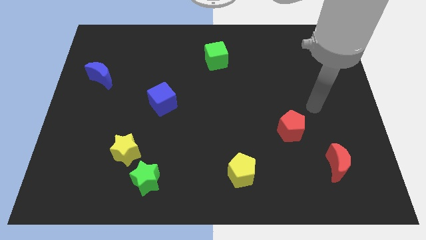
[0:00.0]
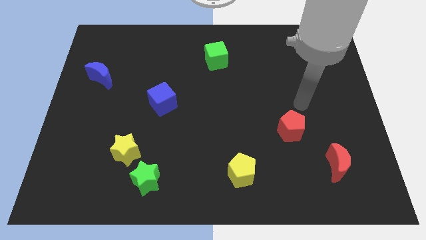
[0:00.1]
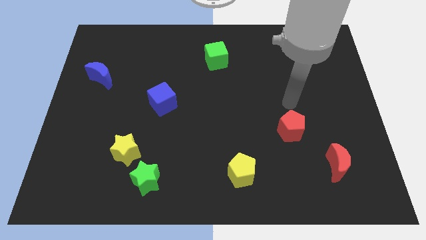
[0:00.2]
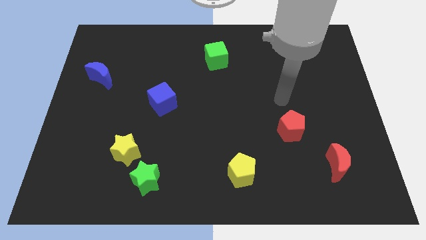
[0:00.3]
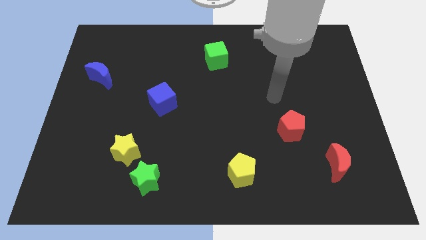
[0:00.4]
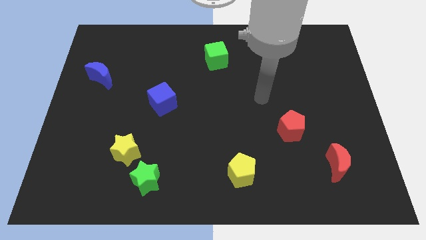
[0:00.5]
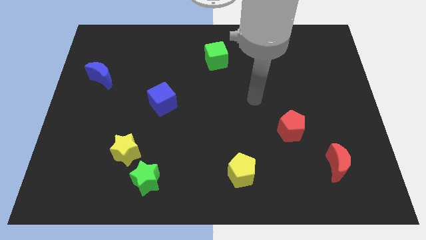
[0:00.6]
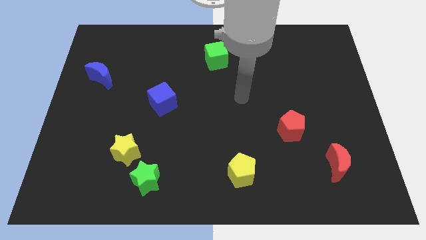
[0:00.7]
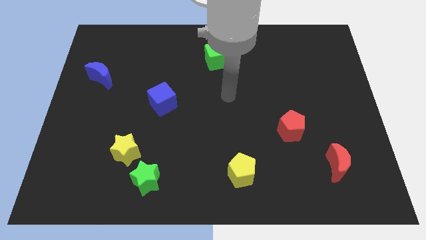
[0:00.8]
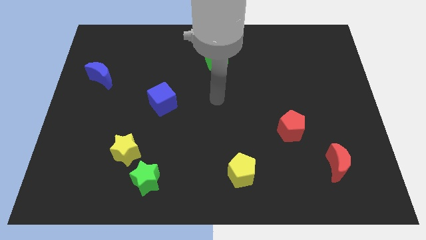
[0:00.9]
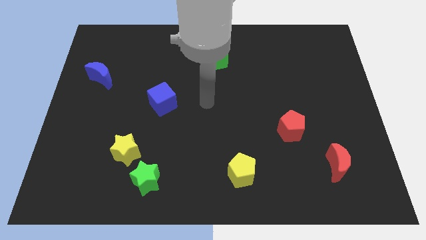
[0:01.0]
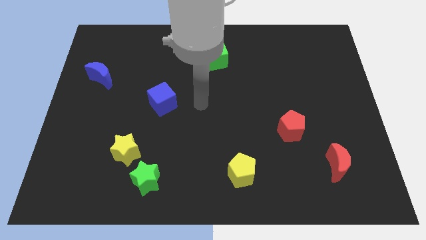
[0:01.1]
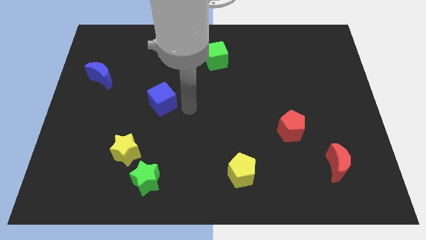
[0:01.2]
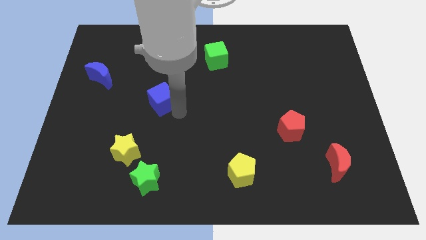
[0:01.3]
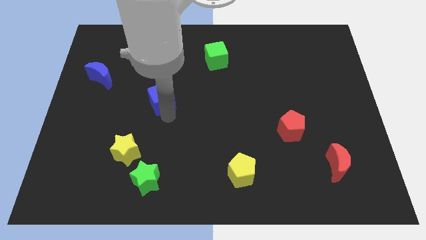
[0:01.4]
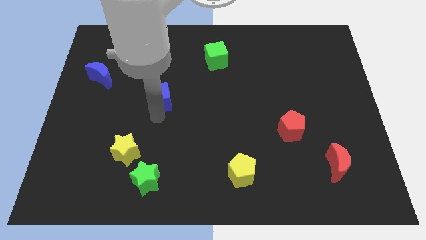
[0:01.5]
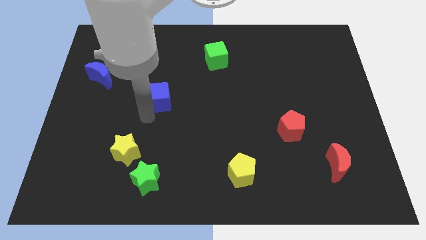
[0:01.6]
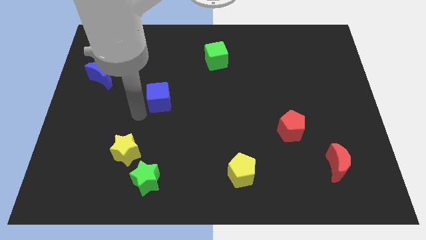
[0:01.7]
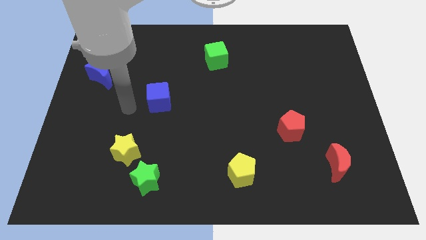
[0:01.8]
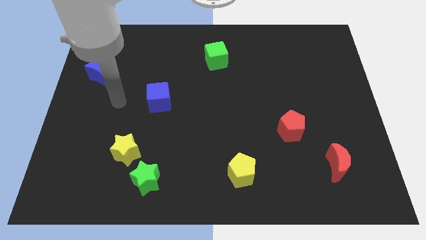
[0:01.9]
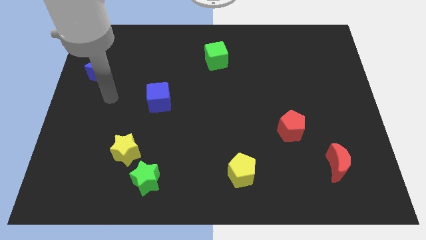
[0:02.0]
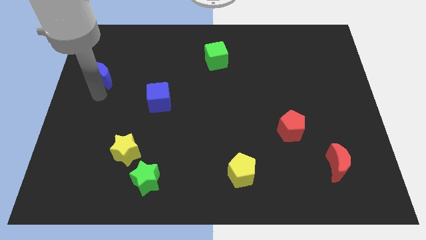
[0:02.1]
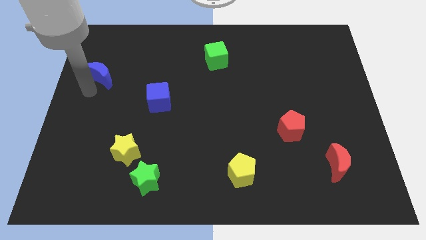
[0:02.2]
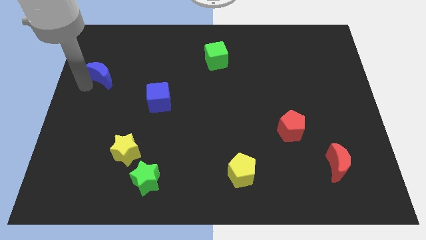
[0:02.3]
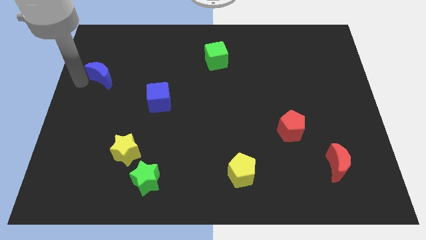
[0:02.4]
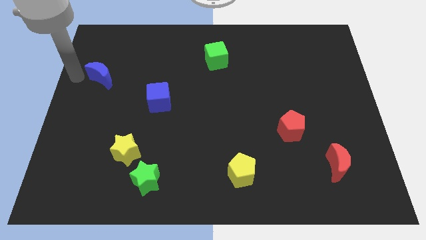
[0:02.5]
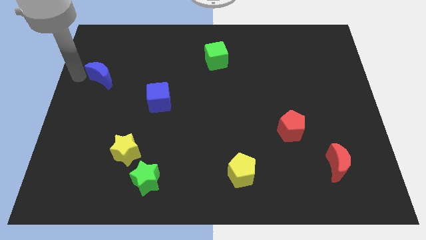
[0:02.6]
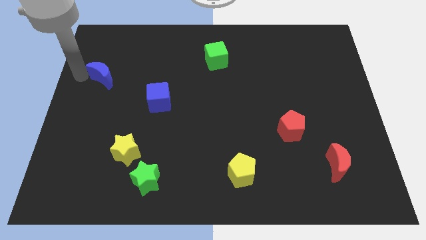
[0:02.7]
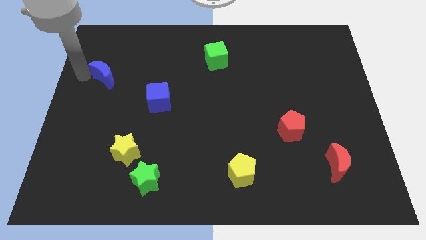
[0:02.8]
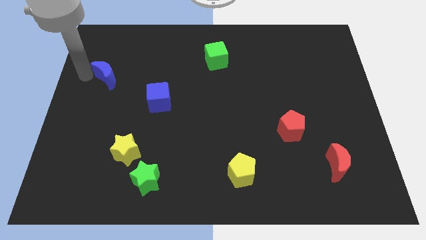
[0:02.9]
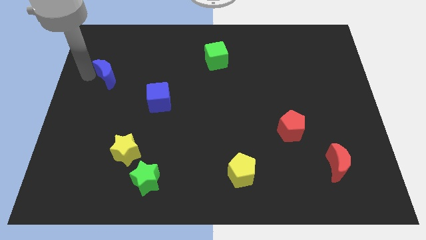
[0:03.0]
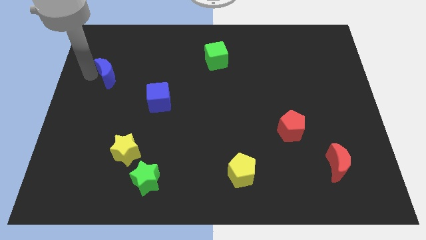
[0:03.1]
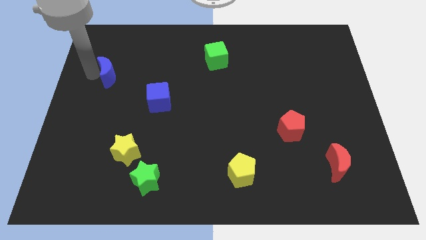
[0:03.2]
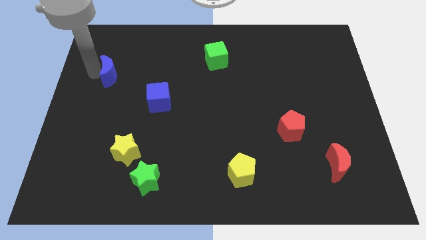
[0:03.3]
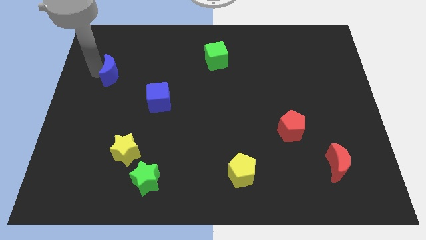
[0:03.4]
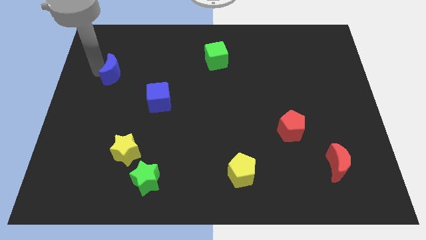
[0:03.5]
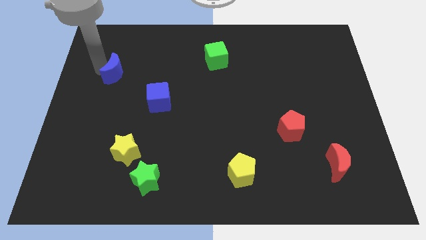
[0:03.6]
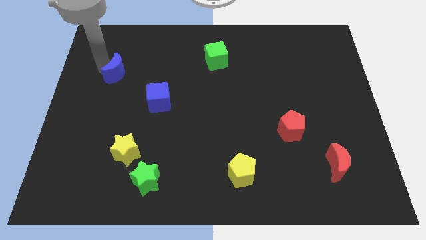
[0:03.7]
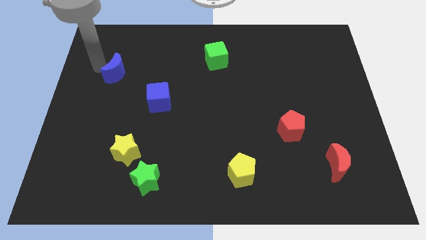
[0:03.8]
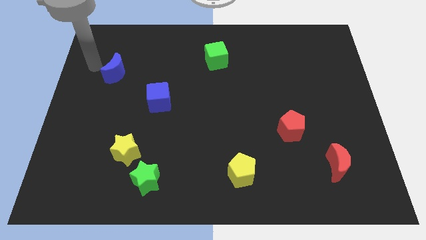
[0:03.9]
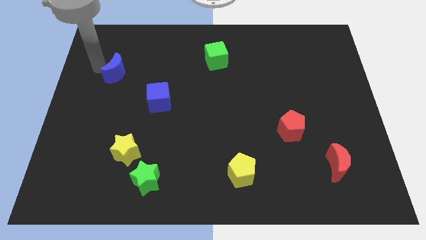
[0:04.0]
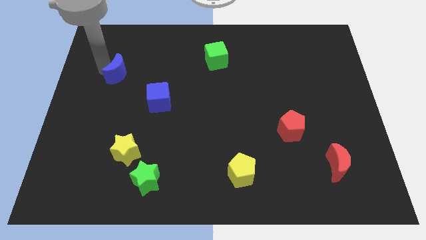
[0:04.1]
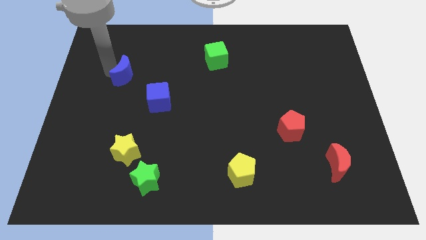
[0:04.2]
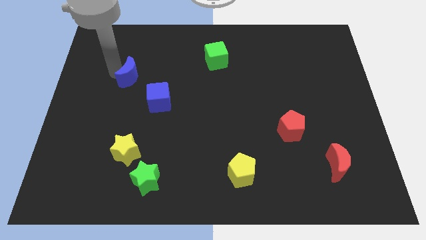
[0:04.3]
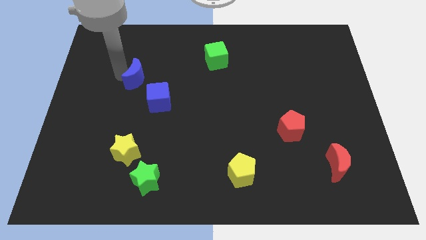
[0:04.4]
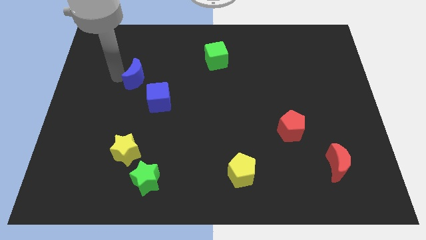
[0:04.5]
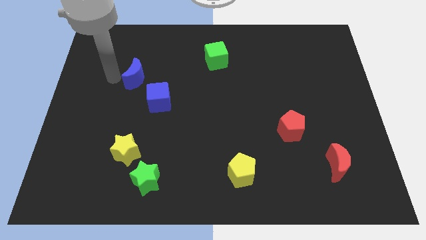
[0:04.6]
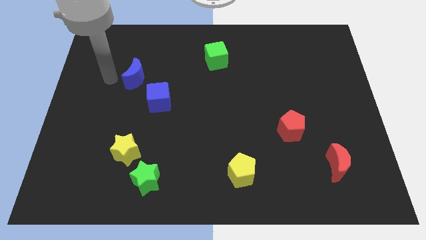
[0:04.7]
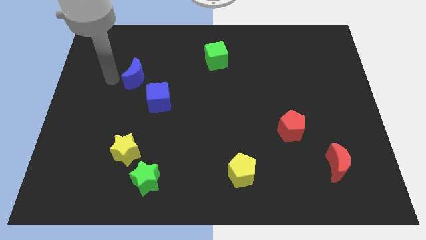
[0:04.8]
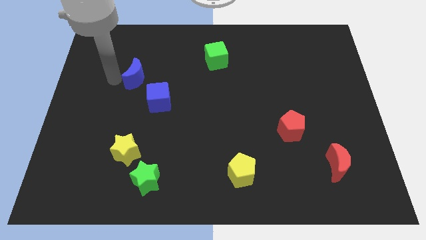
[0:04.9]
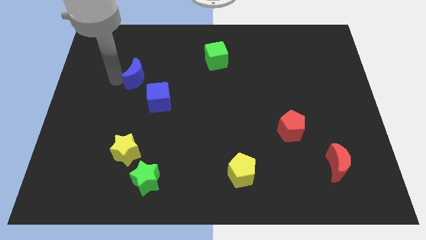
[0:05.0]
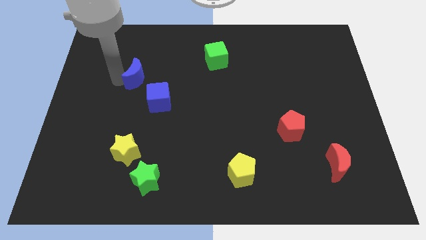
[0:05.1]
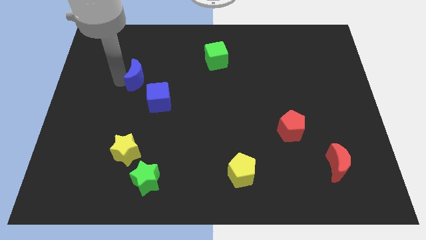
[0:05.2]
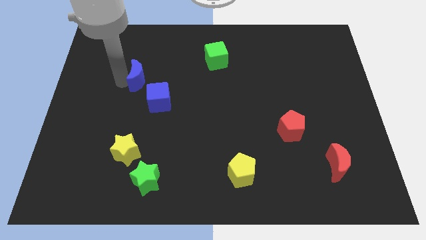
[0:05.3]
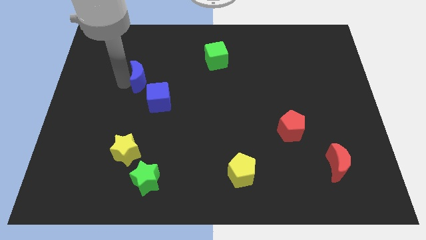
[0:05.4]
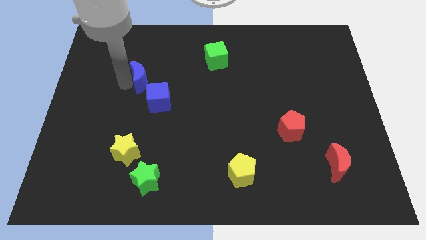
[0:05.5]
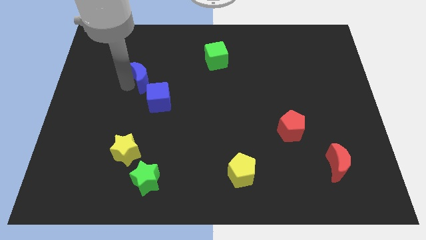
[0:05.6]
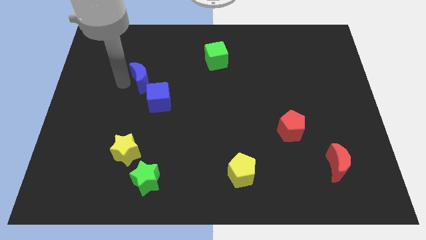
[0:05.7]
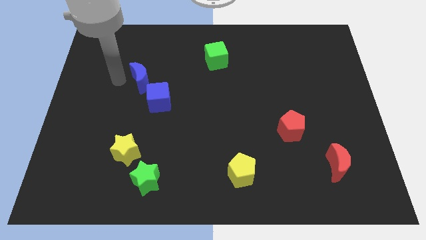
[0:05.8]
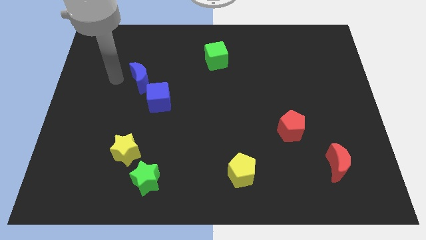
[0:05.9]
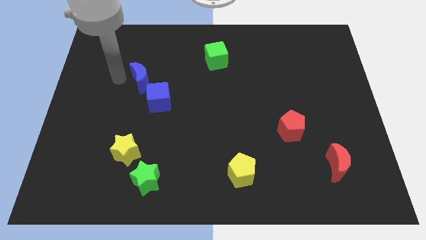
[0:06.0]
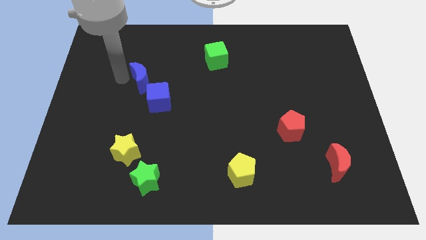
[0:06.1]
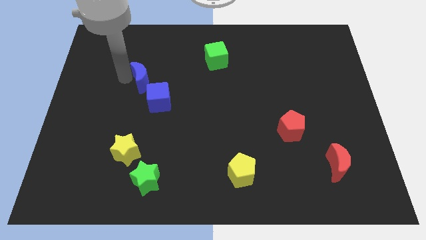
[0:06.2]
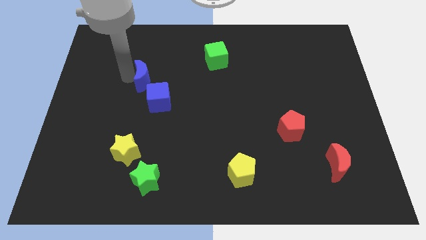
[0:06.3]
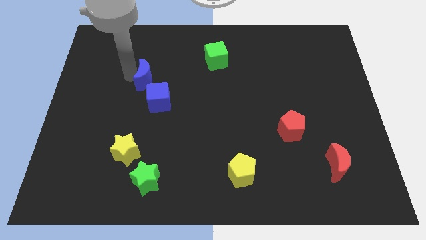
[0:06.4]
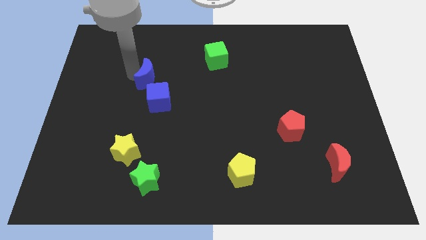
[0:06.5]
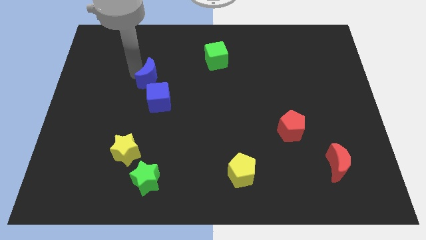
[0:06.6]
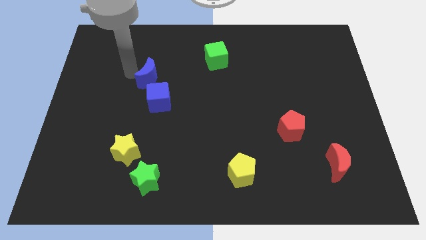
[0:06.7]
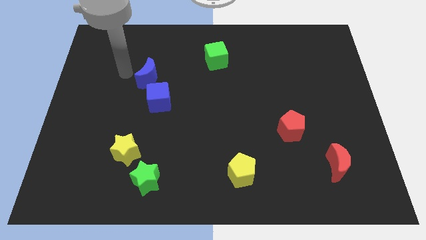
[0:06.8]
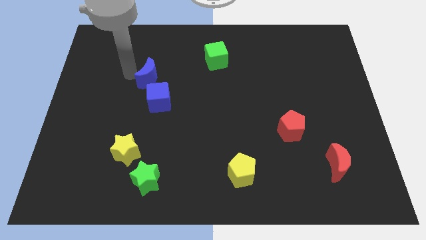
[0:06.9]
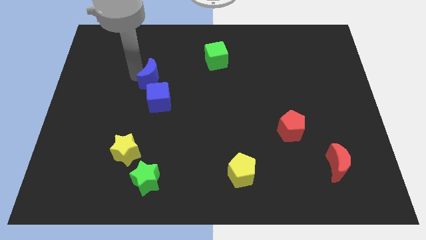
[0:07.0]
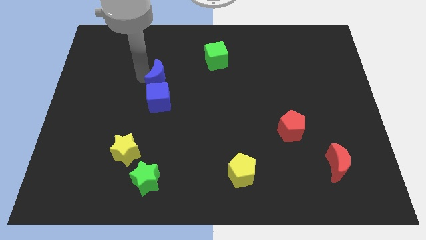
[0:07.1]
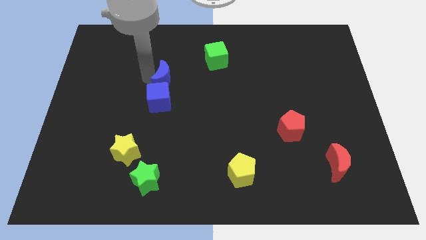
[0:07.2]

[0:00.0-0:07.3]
move the blue moon diagonally up and to the right of the blue cube
